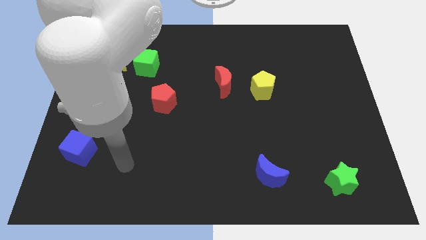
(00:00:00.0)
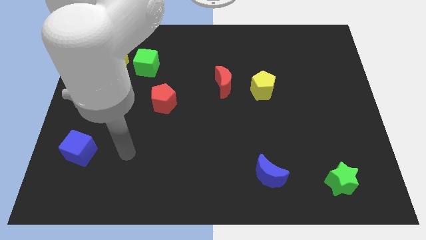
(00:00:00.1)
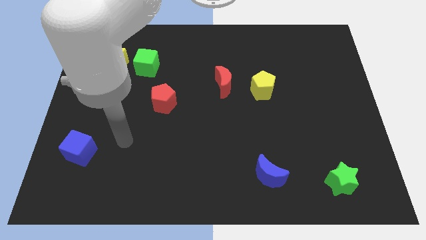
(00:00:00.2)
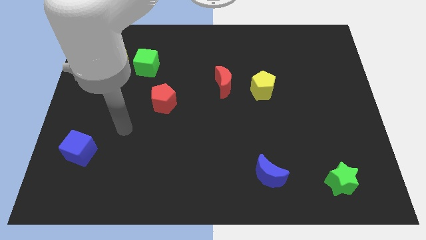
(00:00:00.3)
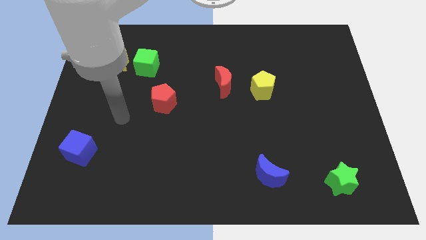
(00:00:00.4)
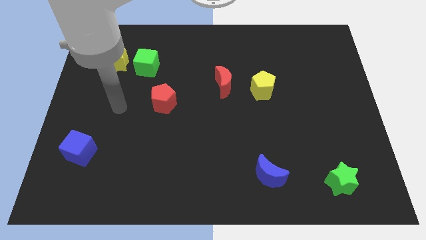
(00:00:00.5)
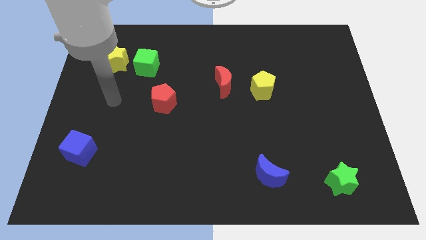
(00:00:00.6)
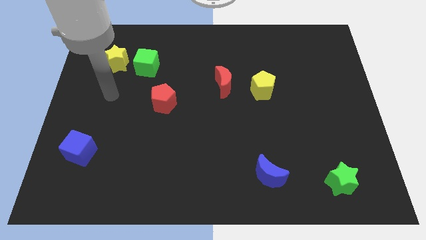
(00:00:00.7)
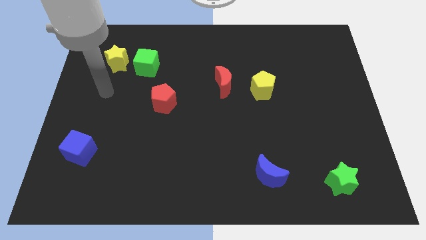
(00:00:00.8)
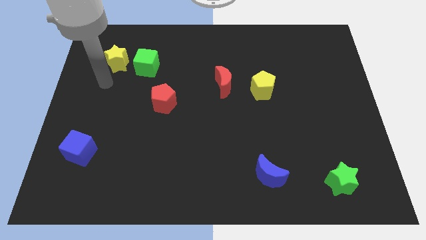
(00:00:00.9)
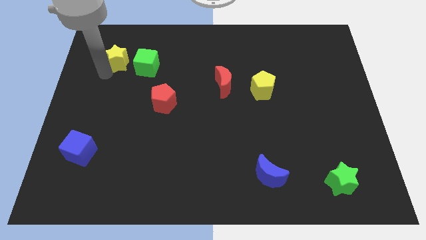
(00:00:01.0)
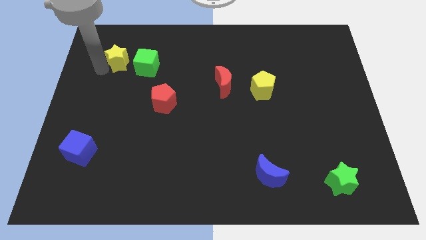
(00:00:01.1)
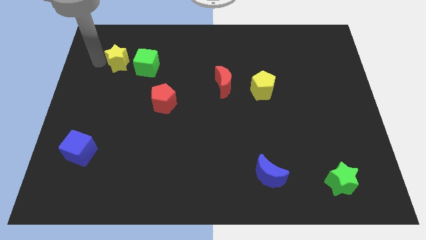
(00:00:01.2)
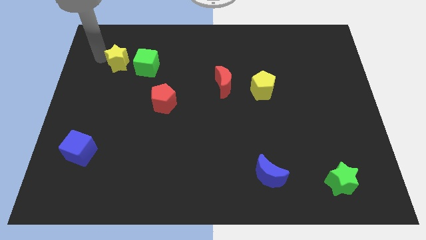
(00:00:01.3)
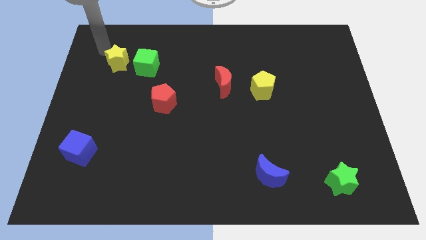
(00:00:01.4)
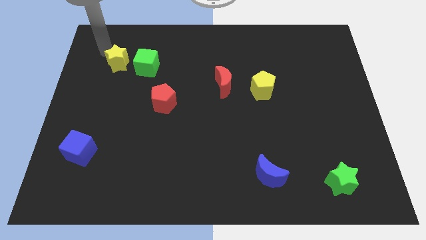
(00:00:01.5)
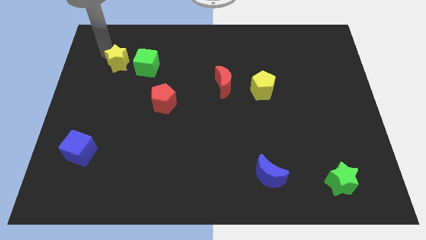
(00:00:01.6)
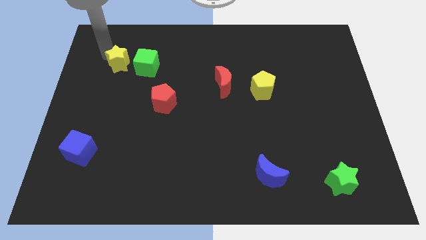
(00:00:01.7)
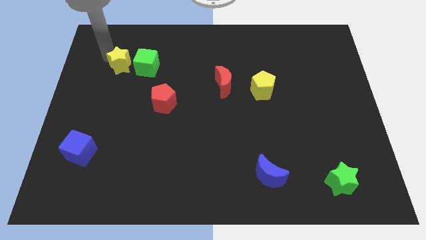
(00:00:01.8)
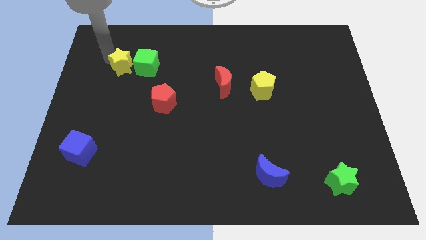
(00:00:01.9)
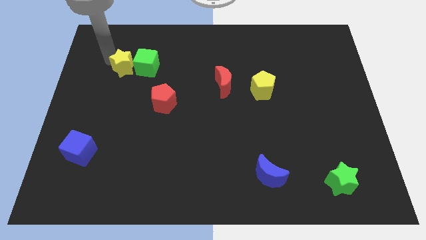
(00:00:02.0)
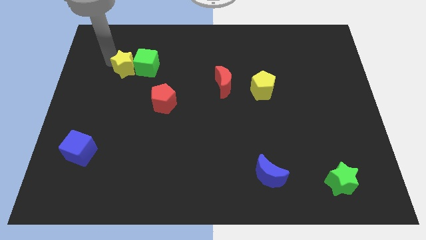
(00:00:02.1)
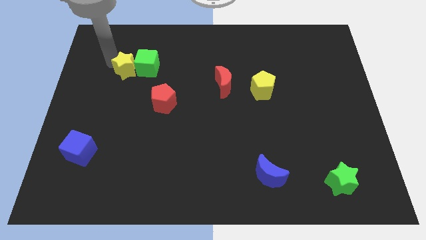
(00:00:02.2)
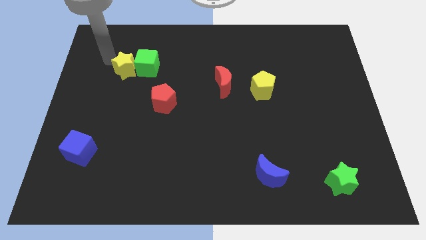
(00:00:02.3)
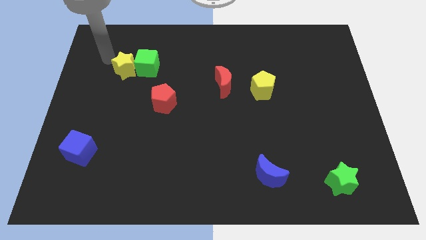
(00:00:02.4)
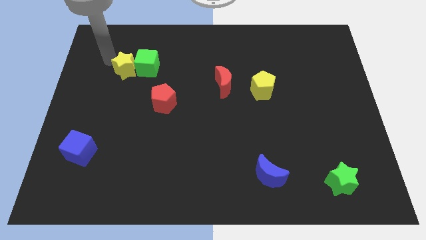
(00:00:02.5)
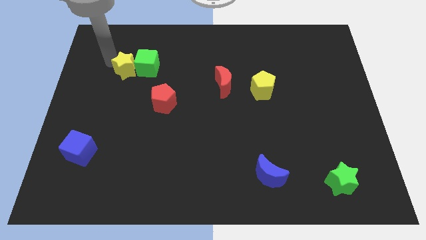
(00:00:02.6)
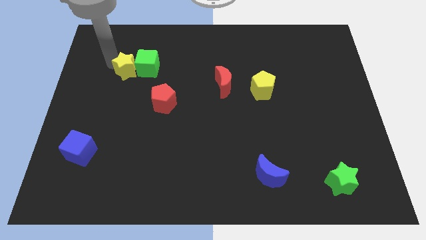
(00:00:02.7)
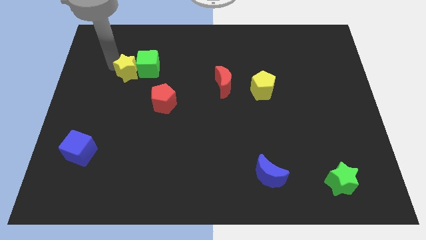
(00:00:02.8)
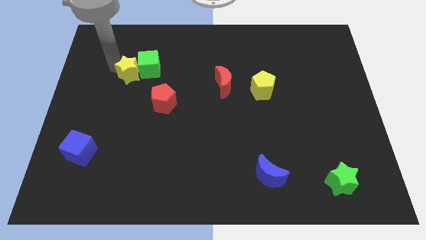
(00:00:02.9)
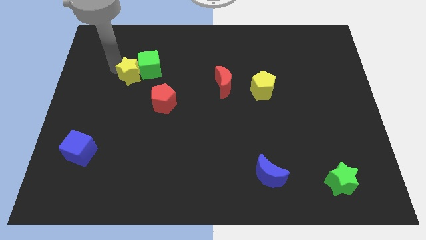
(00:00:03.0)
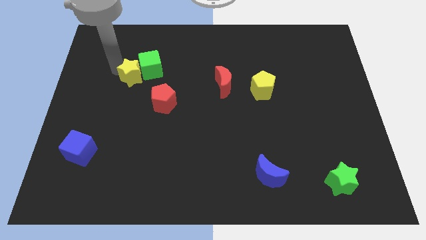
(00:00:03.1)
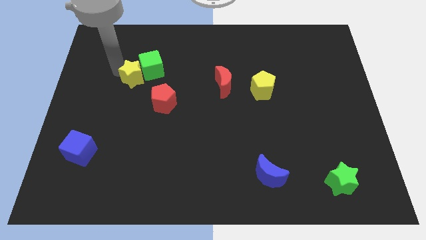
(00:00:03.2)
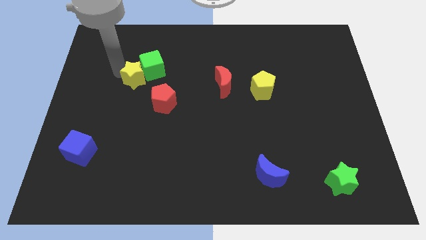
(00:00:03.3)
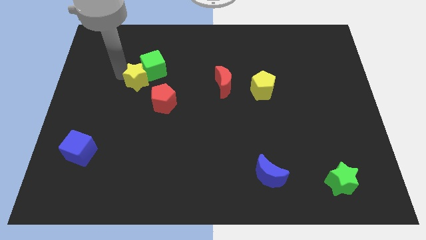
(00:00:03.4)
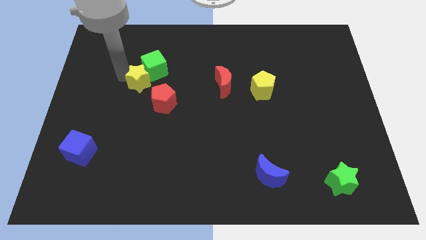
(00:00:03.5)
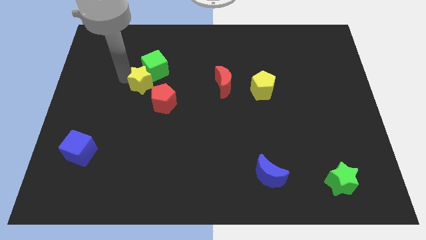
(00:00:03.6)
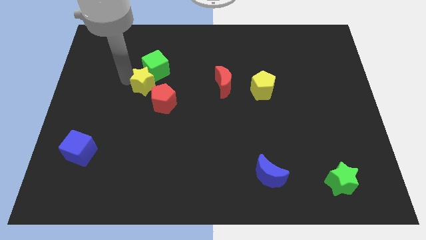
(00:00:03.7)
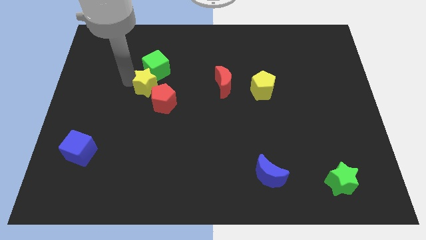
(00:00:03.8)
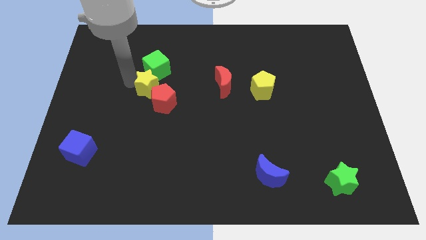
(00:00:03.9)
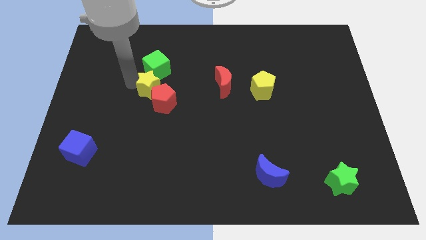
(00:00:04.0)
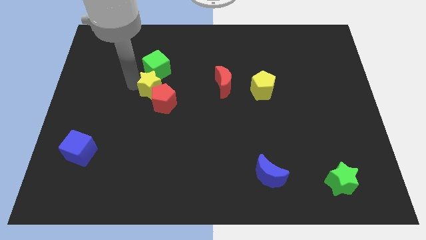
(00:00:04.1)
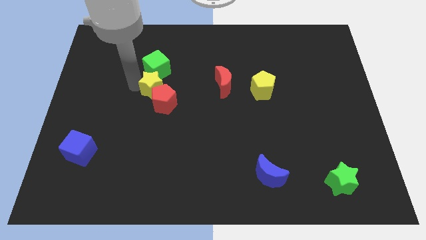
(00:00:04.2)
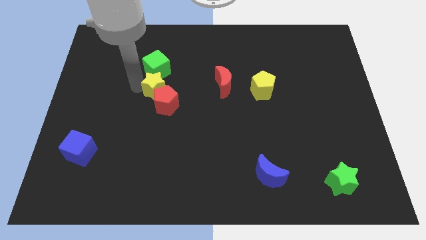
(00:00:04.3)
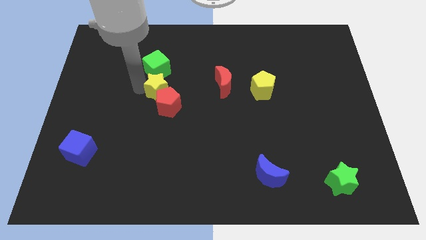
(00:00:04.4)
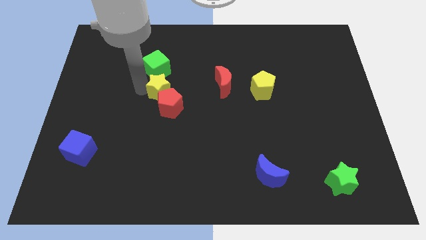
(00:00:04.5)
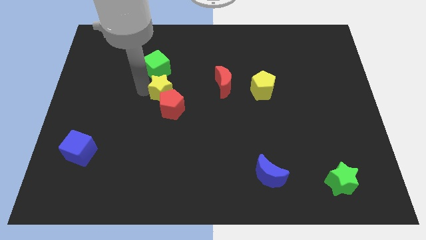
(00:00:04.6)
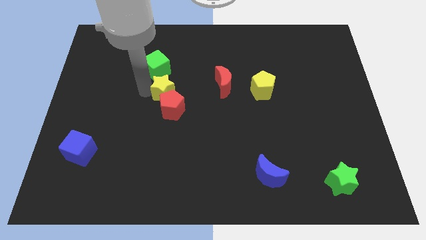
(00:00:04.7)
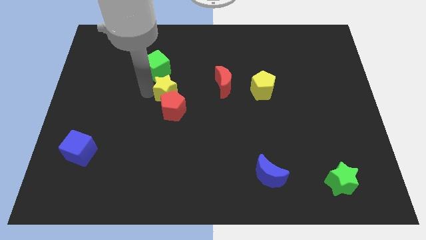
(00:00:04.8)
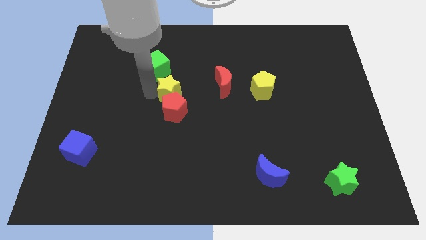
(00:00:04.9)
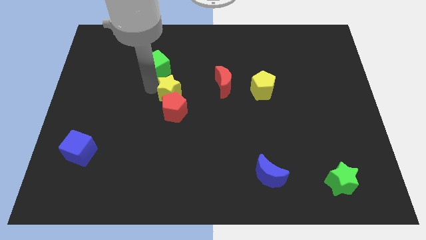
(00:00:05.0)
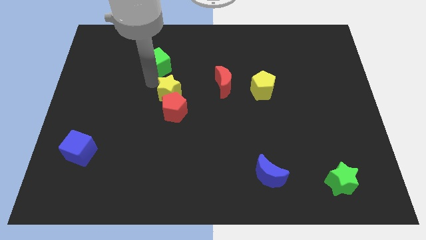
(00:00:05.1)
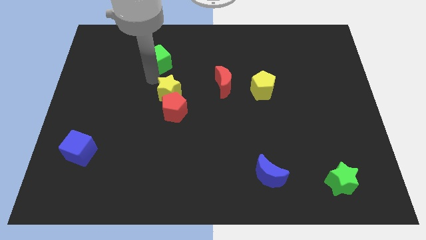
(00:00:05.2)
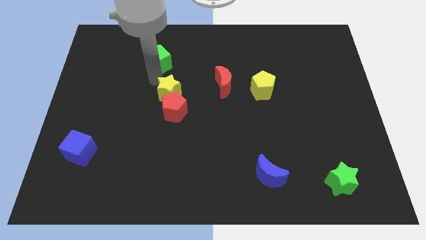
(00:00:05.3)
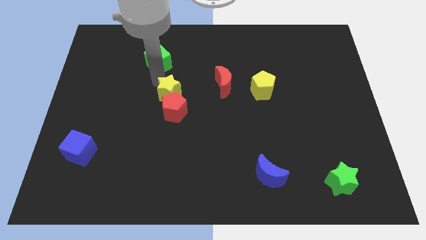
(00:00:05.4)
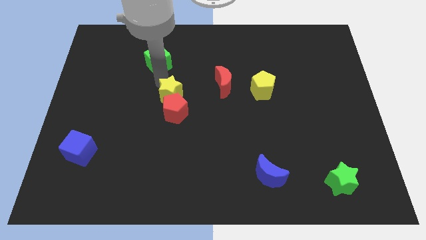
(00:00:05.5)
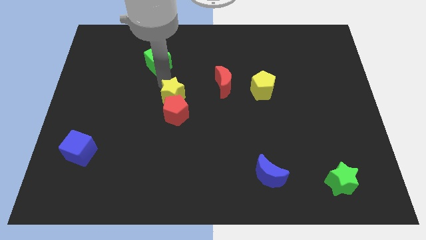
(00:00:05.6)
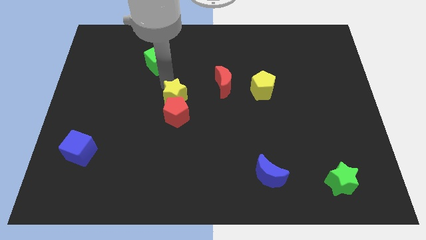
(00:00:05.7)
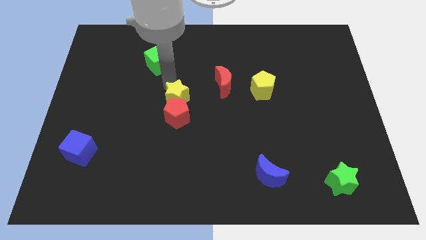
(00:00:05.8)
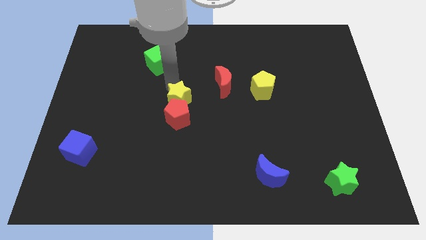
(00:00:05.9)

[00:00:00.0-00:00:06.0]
move the yellow star down and then to the right

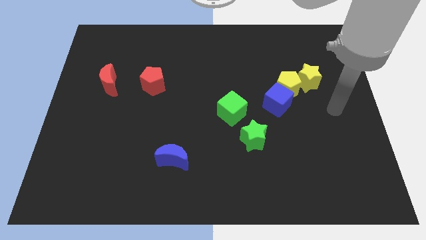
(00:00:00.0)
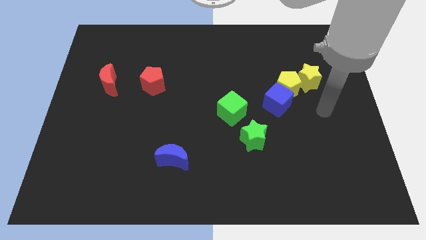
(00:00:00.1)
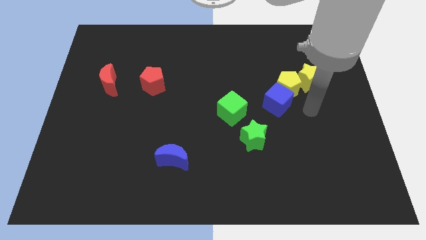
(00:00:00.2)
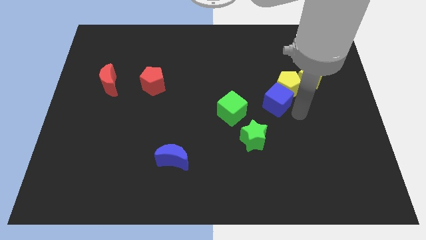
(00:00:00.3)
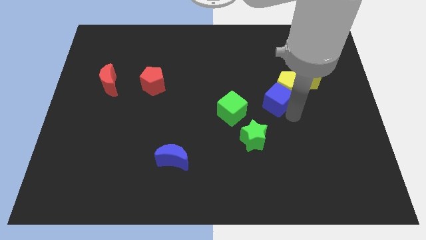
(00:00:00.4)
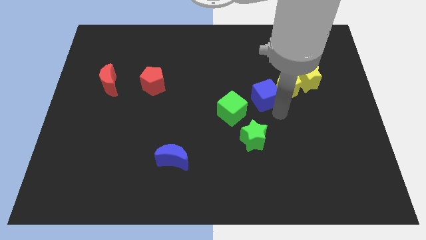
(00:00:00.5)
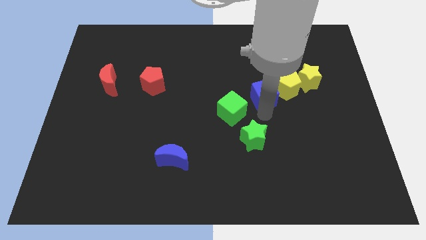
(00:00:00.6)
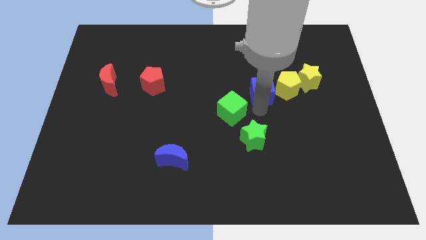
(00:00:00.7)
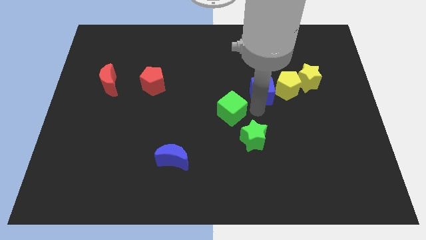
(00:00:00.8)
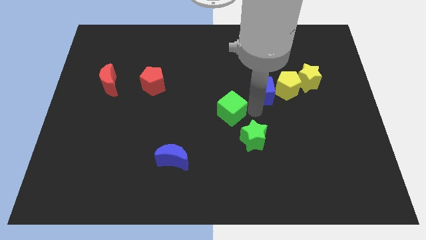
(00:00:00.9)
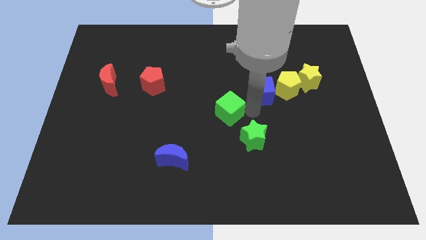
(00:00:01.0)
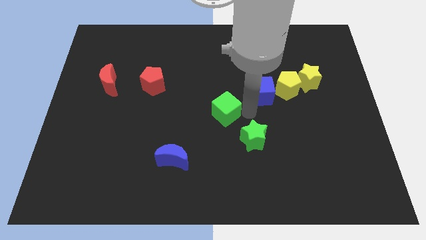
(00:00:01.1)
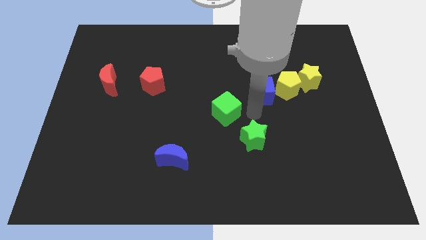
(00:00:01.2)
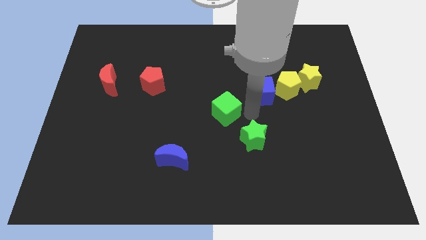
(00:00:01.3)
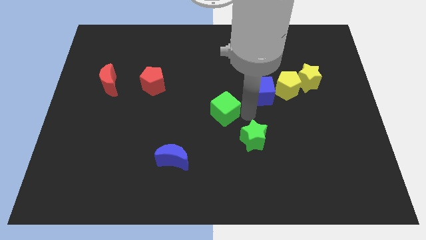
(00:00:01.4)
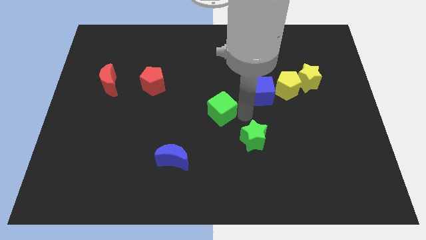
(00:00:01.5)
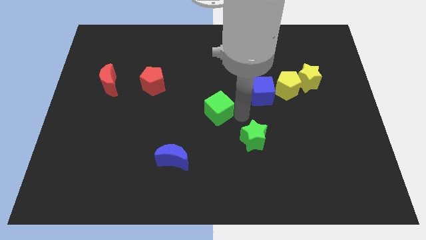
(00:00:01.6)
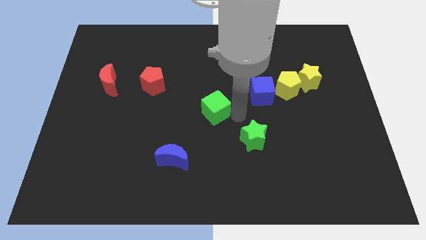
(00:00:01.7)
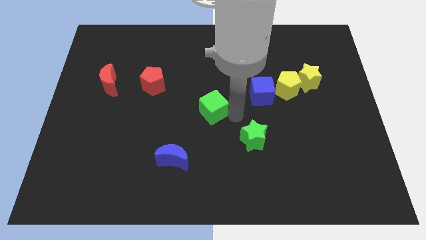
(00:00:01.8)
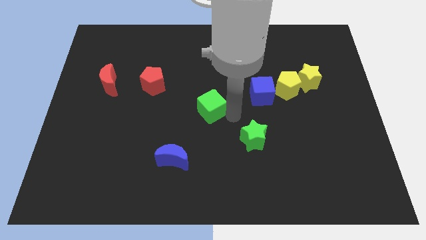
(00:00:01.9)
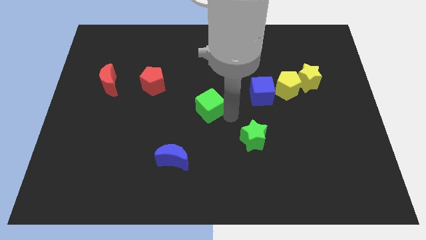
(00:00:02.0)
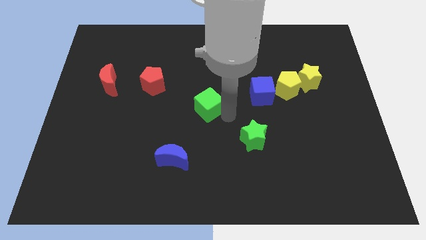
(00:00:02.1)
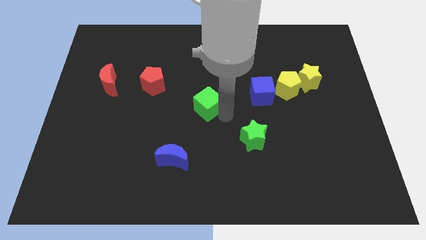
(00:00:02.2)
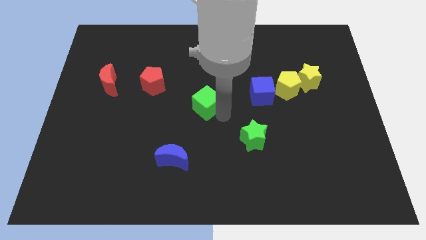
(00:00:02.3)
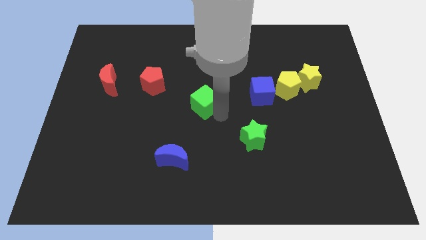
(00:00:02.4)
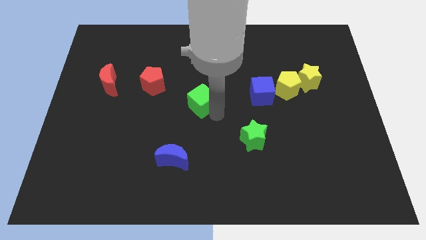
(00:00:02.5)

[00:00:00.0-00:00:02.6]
push the green cube a little bit left
